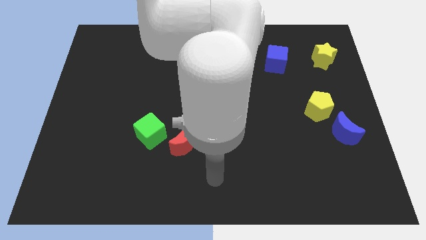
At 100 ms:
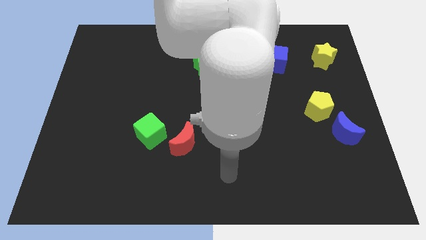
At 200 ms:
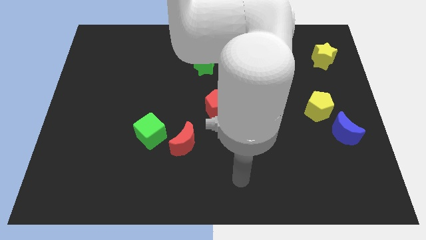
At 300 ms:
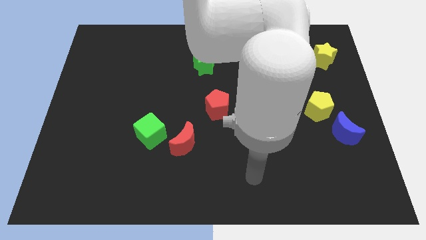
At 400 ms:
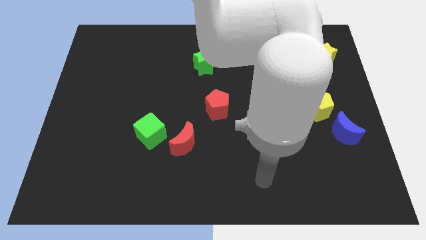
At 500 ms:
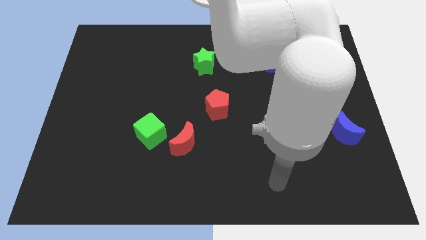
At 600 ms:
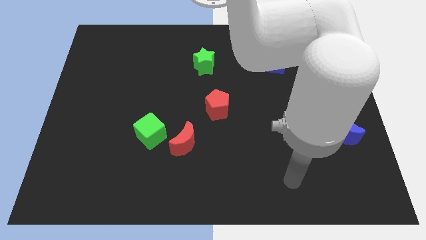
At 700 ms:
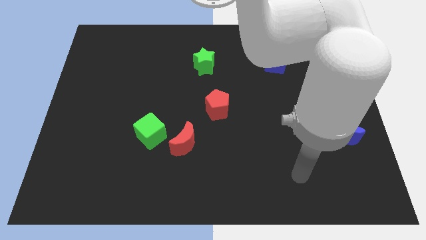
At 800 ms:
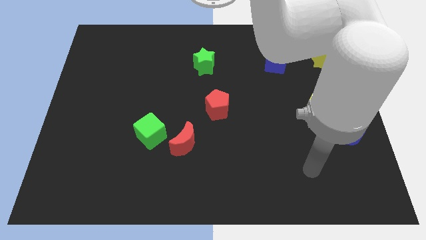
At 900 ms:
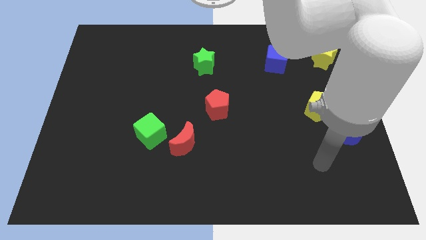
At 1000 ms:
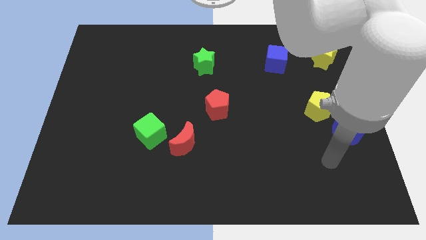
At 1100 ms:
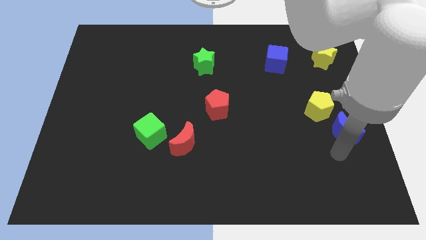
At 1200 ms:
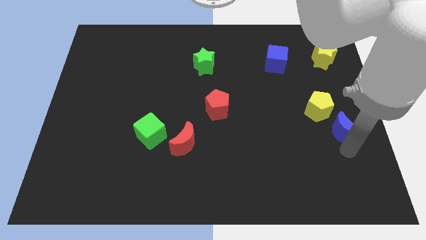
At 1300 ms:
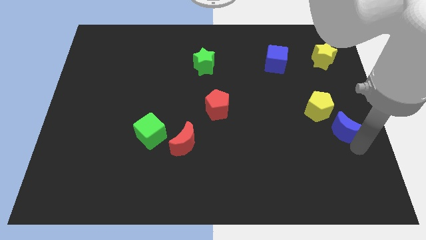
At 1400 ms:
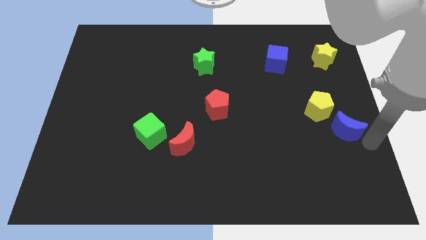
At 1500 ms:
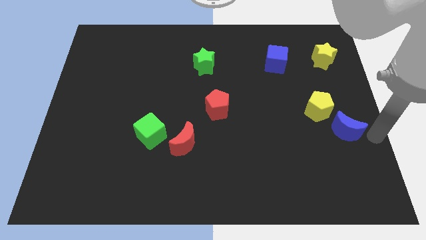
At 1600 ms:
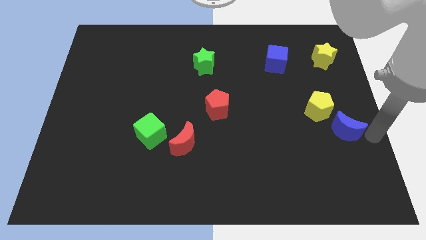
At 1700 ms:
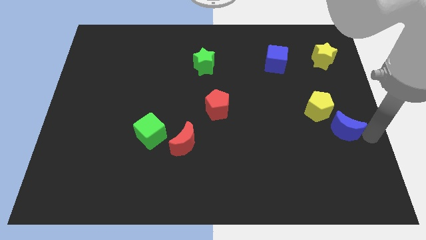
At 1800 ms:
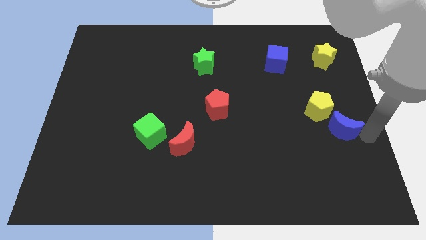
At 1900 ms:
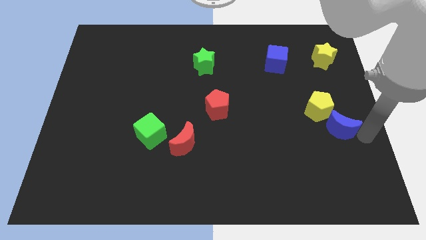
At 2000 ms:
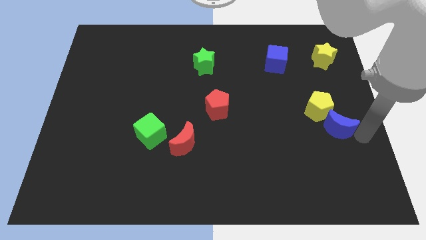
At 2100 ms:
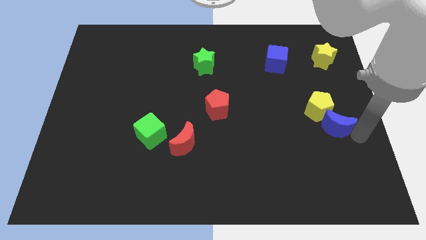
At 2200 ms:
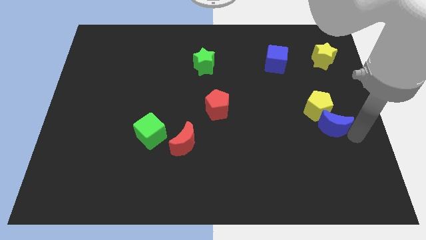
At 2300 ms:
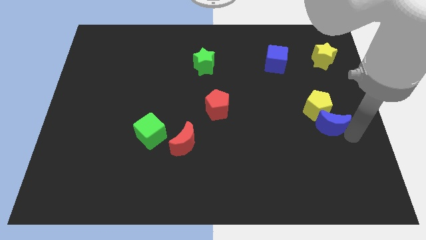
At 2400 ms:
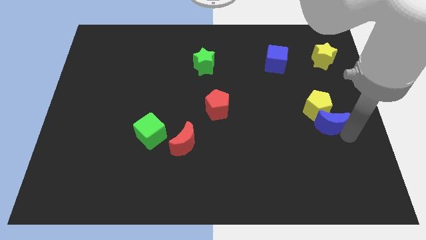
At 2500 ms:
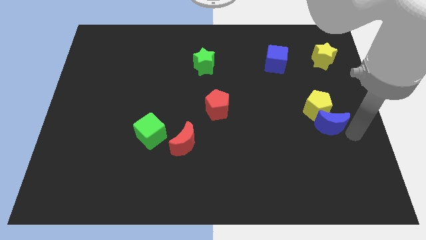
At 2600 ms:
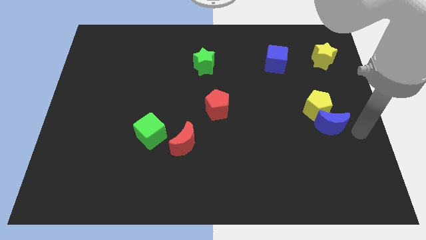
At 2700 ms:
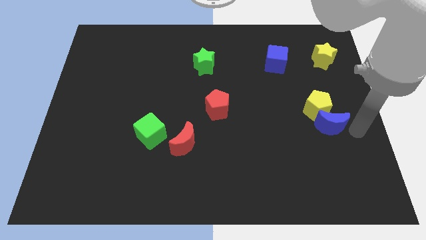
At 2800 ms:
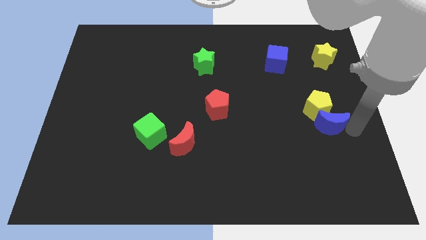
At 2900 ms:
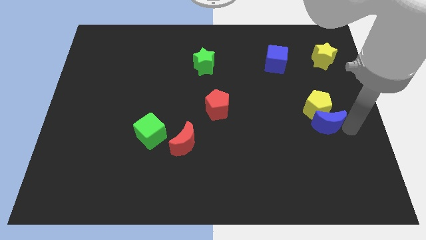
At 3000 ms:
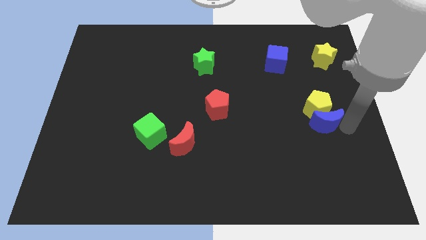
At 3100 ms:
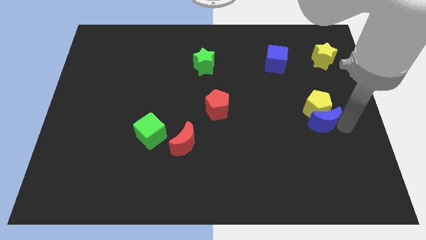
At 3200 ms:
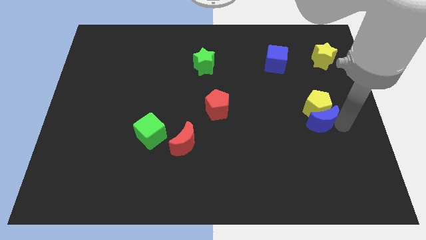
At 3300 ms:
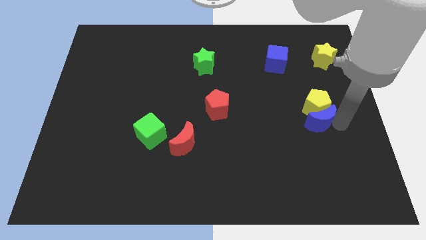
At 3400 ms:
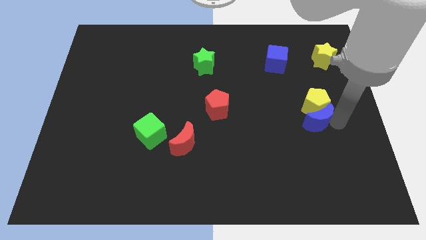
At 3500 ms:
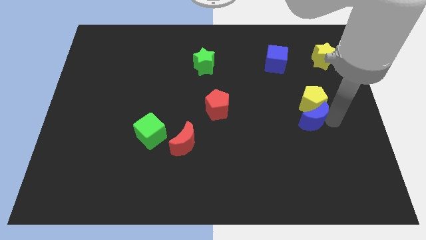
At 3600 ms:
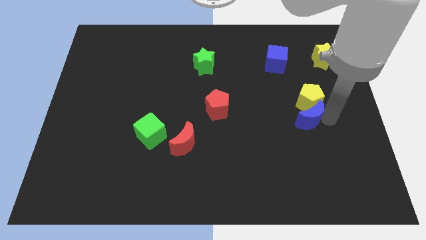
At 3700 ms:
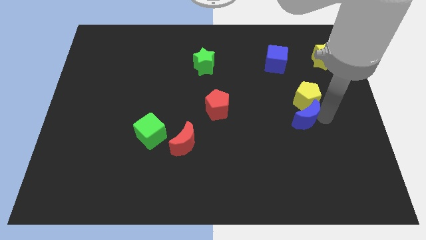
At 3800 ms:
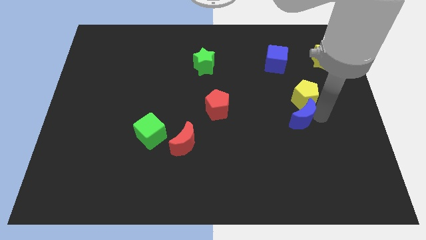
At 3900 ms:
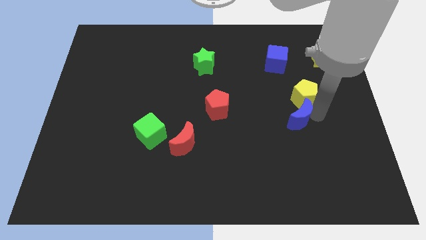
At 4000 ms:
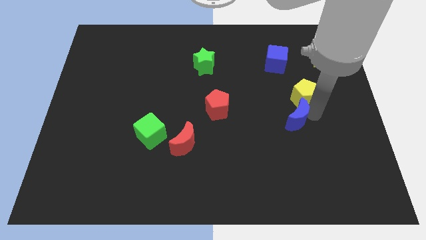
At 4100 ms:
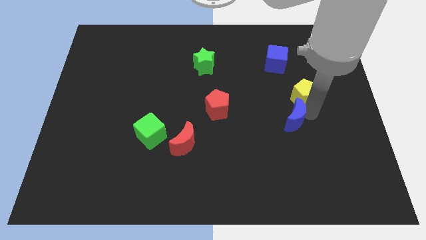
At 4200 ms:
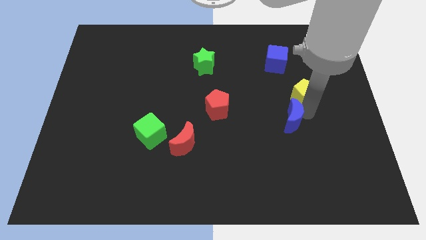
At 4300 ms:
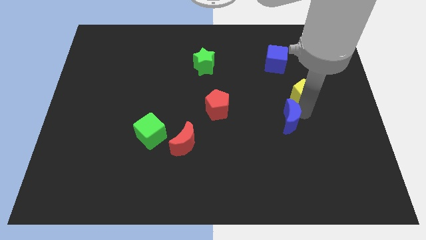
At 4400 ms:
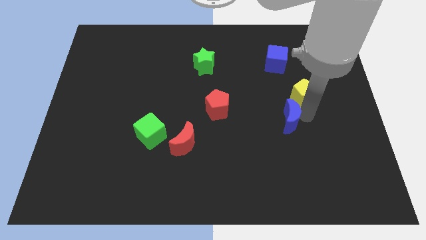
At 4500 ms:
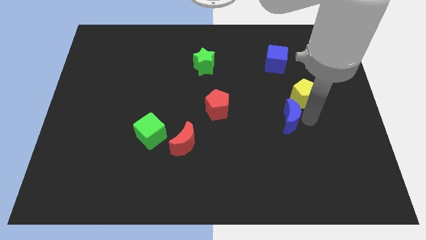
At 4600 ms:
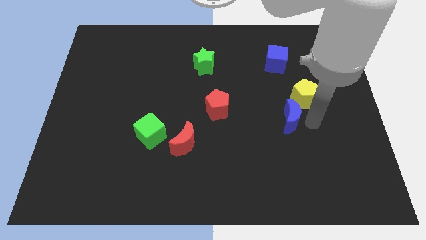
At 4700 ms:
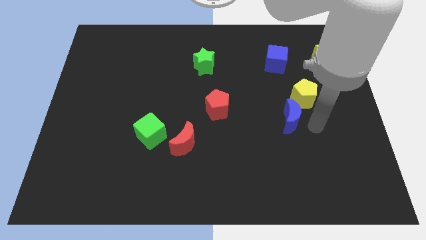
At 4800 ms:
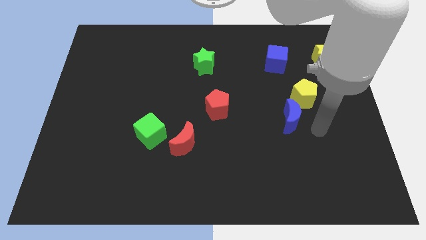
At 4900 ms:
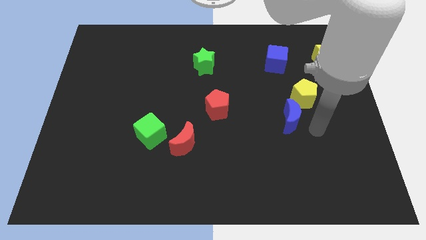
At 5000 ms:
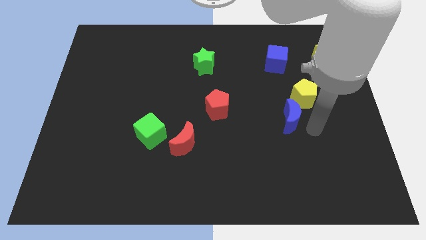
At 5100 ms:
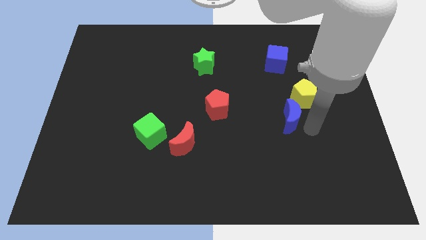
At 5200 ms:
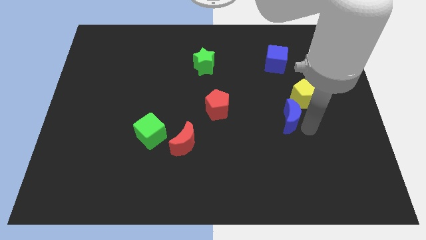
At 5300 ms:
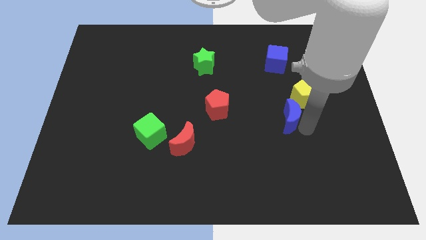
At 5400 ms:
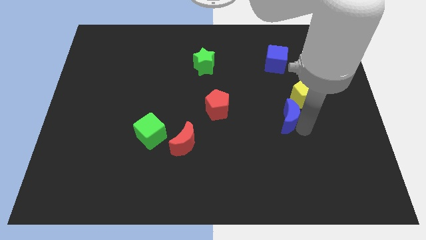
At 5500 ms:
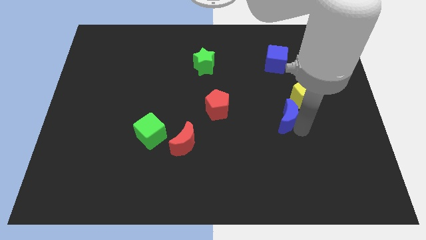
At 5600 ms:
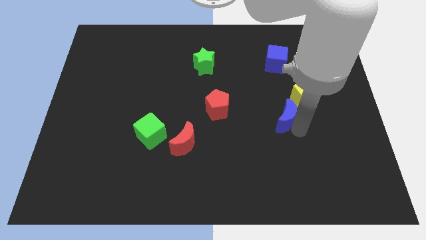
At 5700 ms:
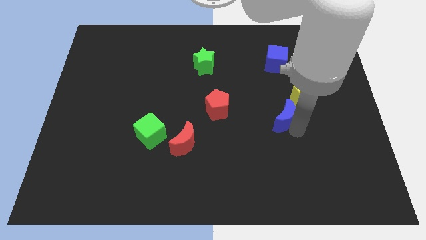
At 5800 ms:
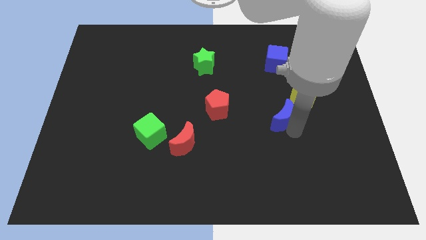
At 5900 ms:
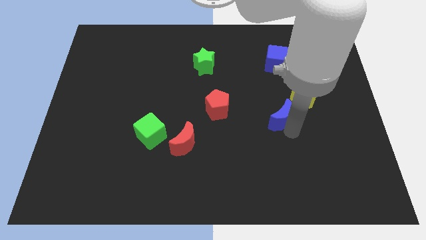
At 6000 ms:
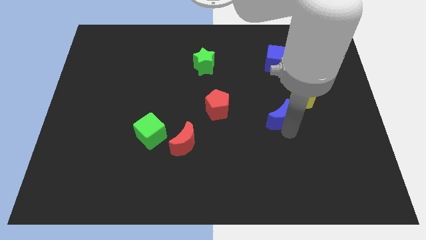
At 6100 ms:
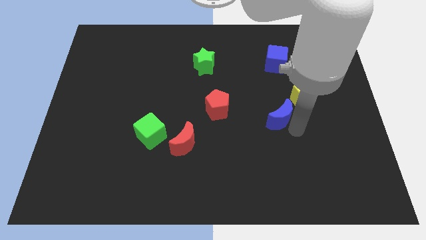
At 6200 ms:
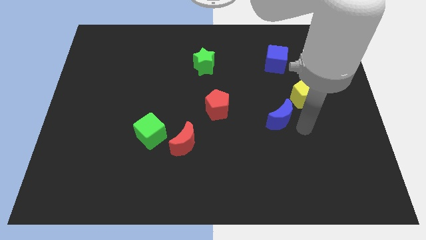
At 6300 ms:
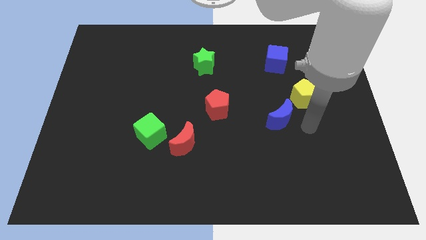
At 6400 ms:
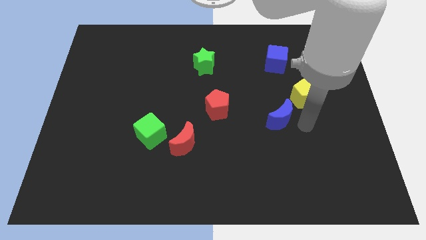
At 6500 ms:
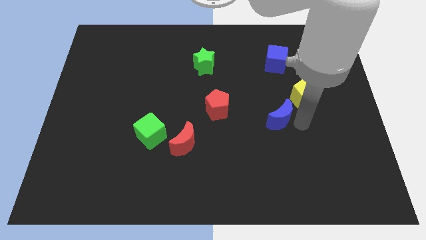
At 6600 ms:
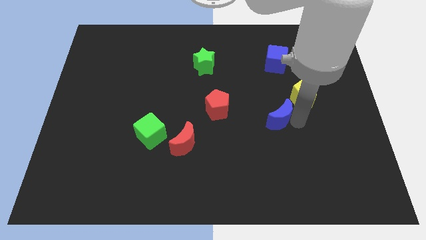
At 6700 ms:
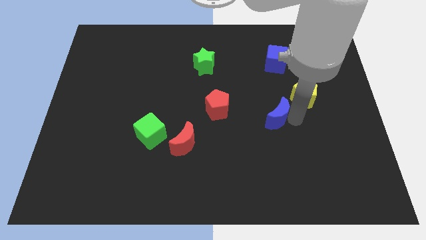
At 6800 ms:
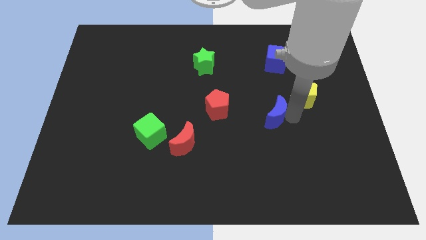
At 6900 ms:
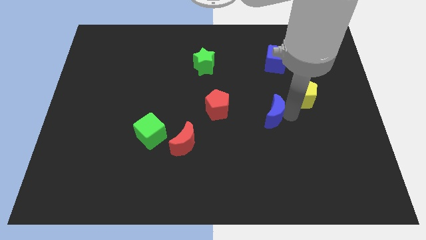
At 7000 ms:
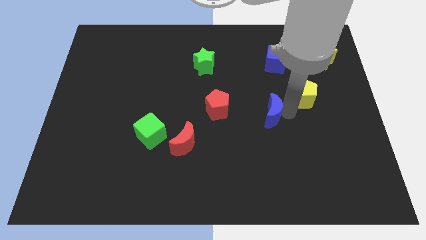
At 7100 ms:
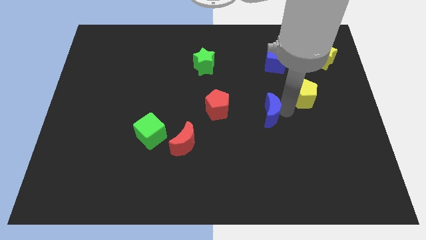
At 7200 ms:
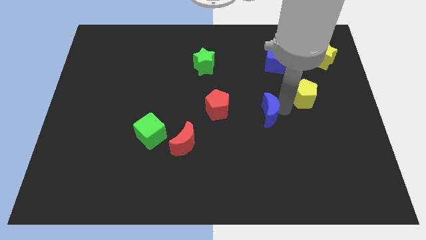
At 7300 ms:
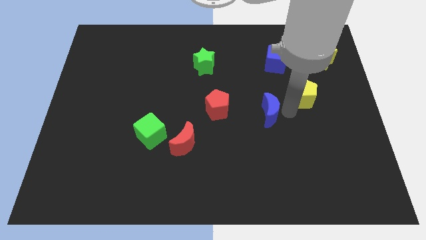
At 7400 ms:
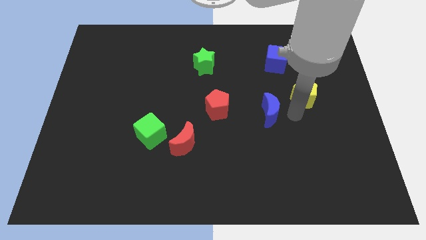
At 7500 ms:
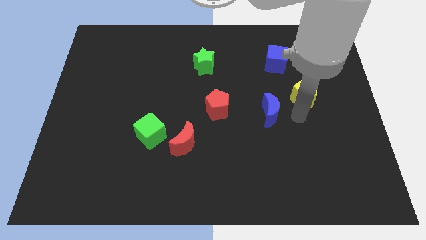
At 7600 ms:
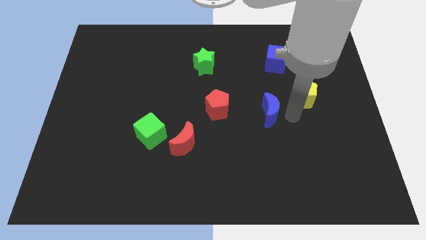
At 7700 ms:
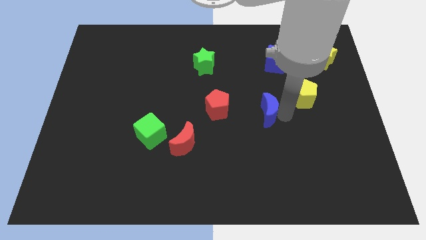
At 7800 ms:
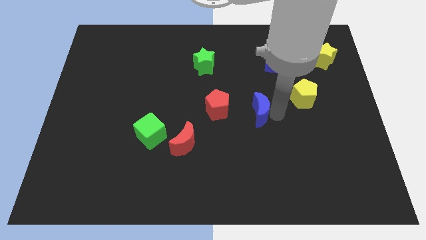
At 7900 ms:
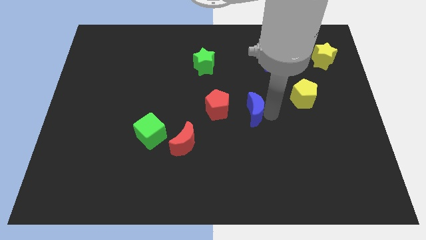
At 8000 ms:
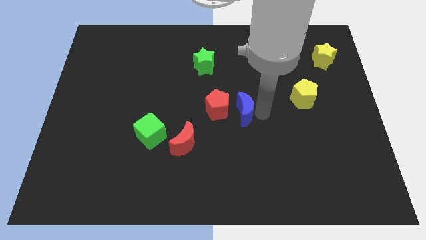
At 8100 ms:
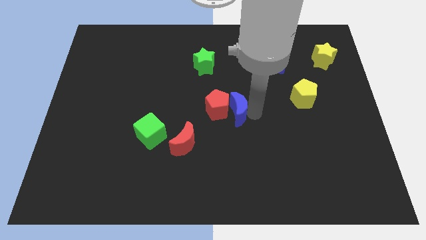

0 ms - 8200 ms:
move the blue moon towards the red pentagon
